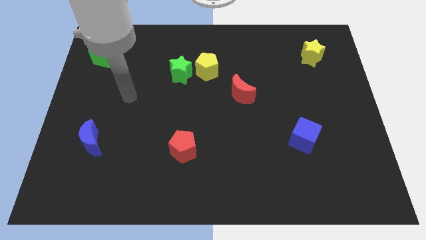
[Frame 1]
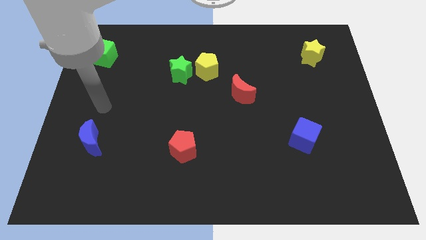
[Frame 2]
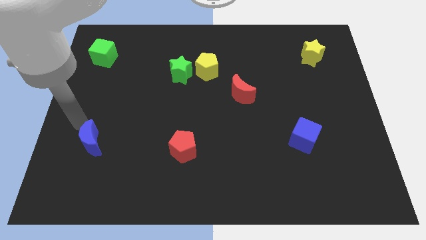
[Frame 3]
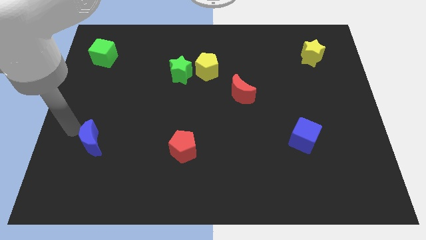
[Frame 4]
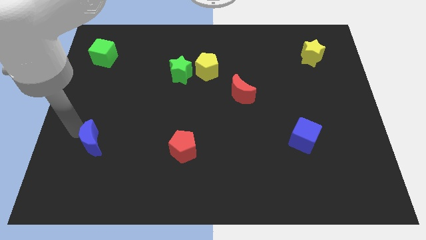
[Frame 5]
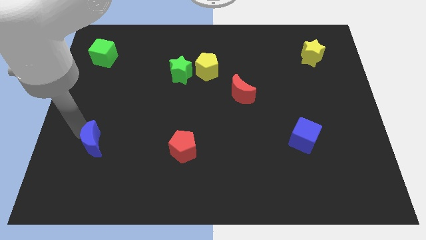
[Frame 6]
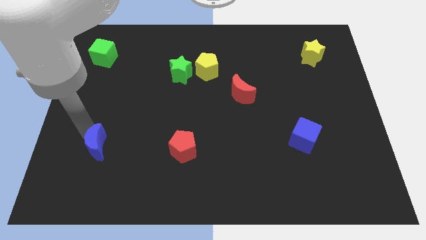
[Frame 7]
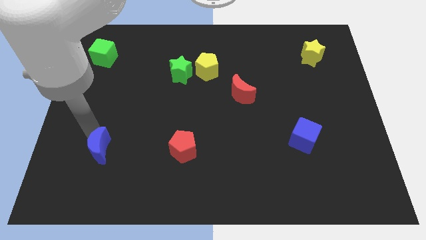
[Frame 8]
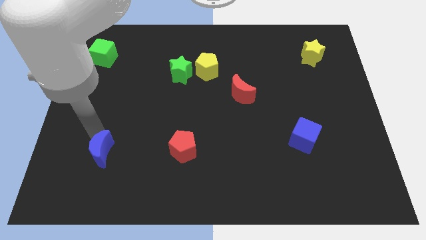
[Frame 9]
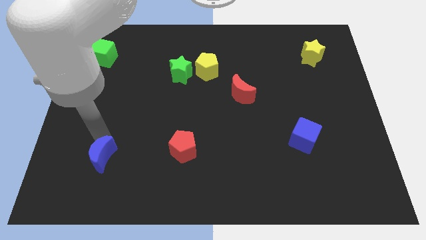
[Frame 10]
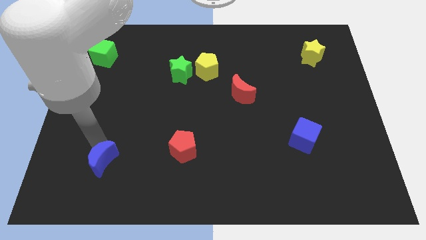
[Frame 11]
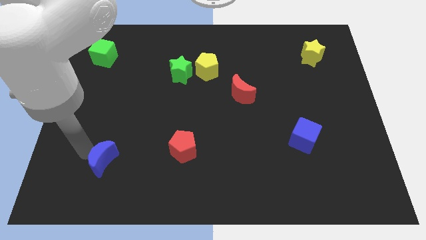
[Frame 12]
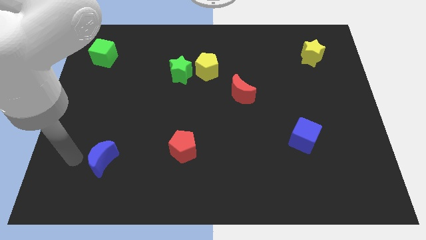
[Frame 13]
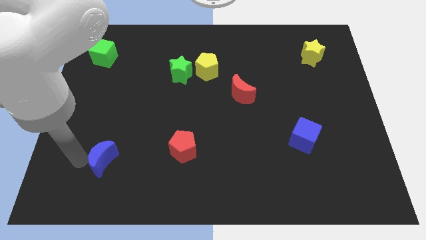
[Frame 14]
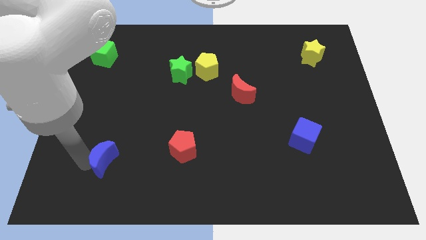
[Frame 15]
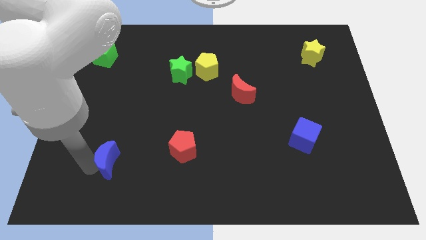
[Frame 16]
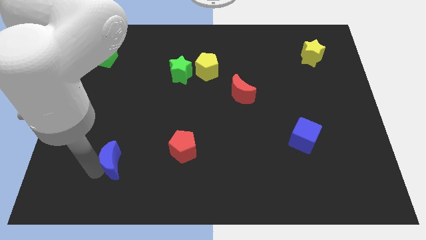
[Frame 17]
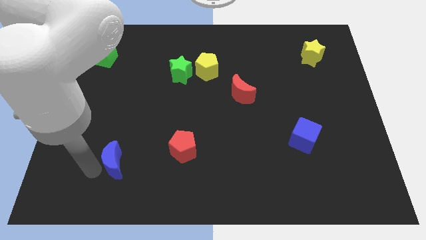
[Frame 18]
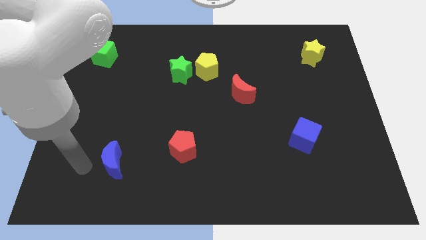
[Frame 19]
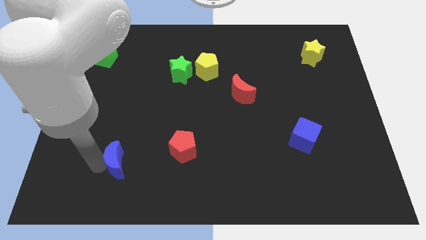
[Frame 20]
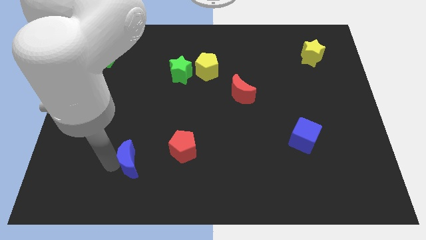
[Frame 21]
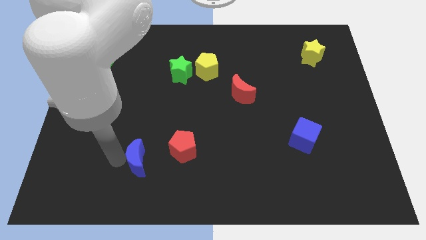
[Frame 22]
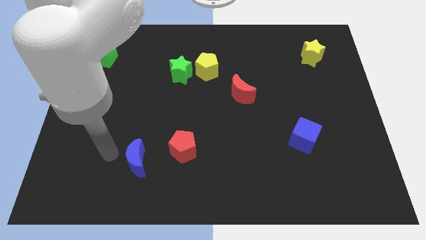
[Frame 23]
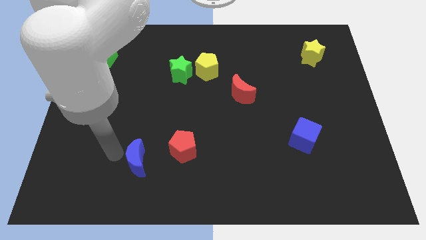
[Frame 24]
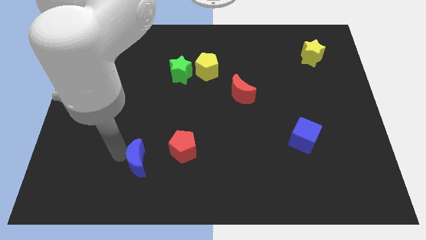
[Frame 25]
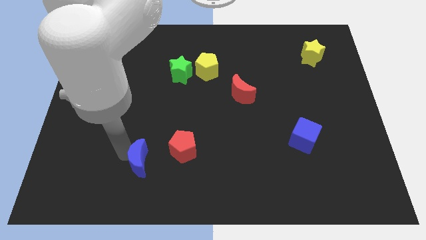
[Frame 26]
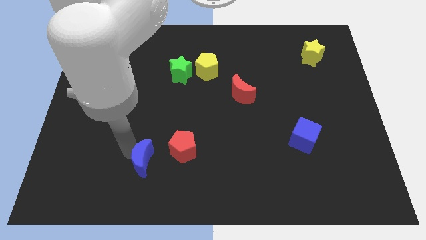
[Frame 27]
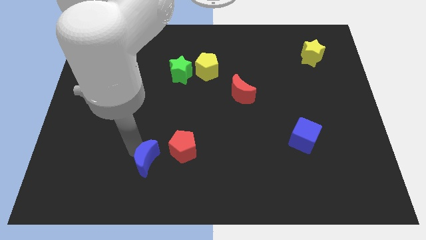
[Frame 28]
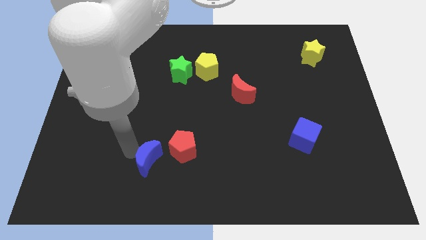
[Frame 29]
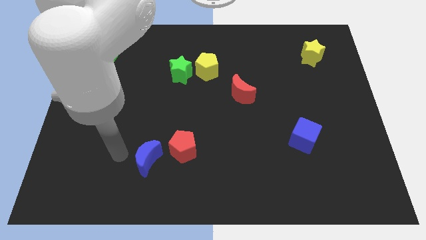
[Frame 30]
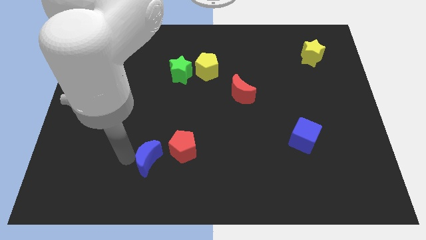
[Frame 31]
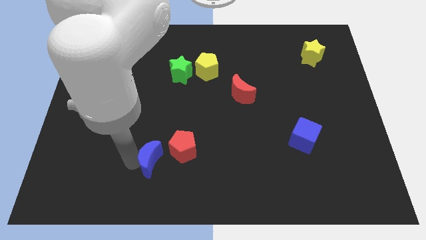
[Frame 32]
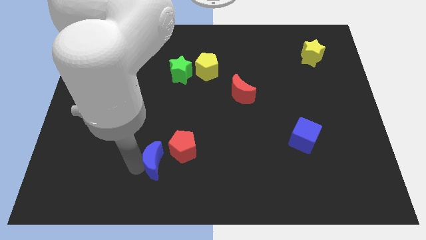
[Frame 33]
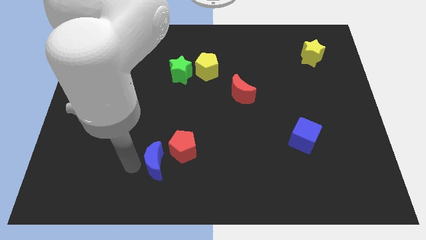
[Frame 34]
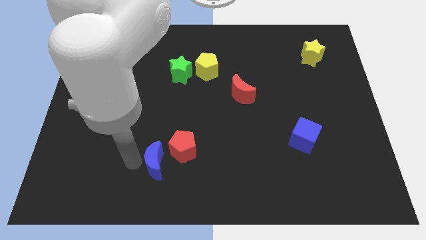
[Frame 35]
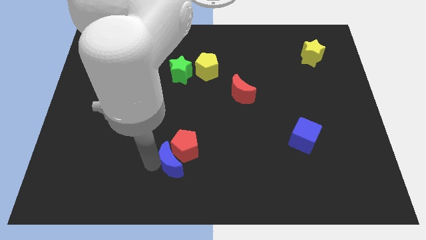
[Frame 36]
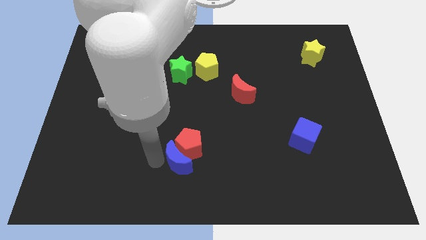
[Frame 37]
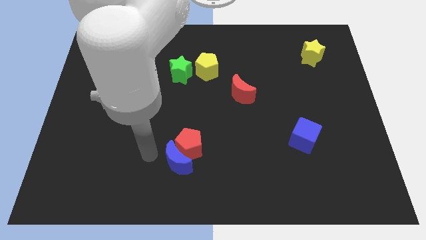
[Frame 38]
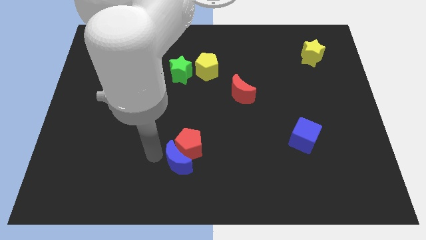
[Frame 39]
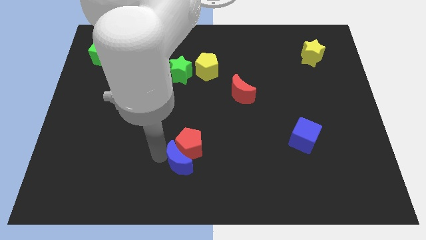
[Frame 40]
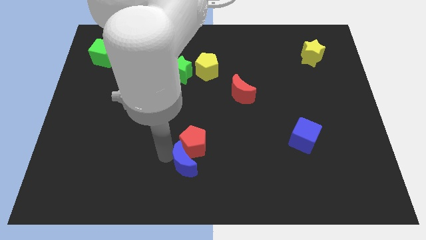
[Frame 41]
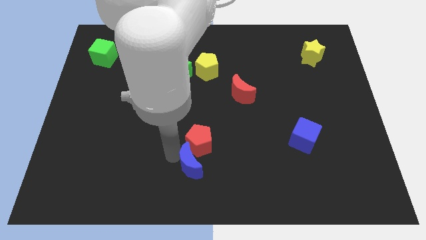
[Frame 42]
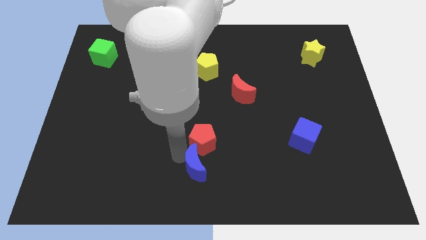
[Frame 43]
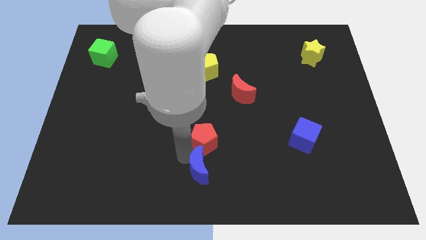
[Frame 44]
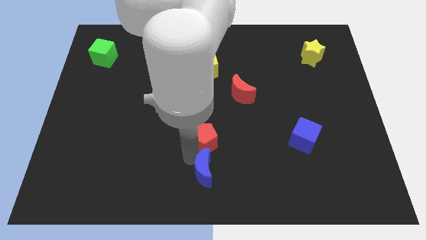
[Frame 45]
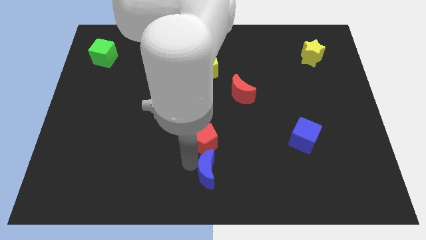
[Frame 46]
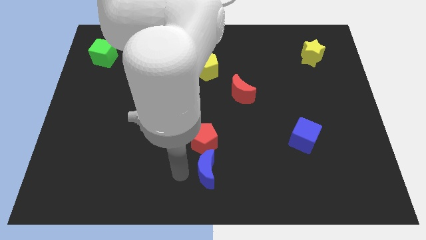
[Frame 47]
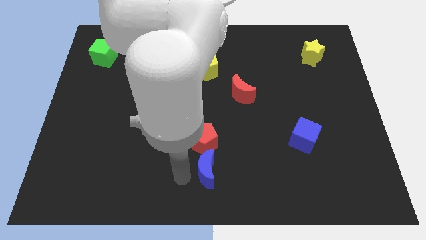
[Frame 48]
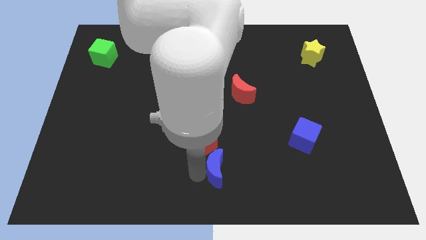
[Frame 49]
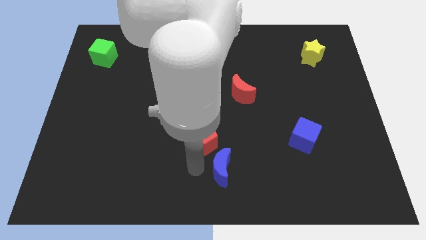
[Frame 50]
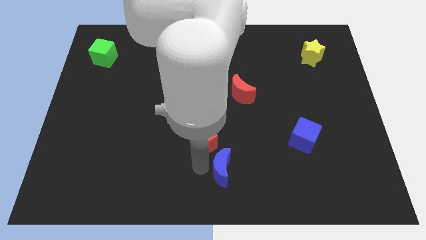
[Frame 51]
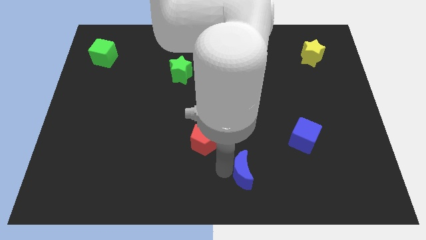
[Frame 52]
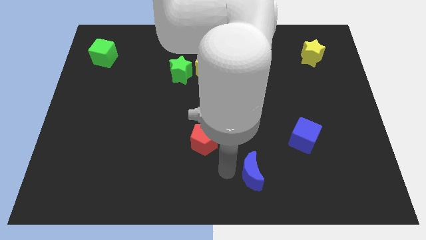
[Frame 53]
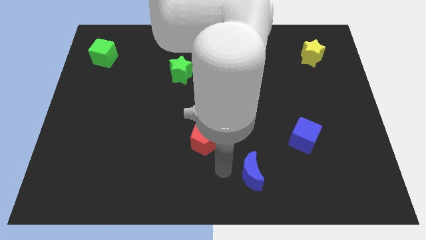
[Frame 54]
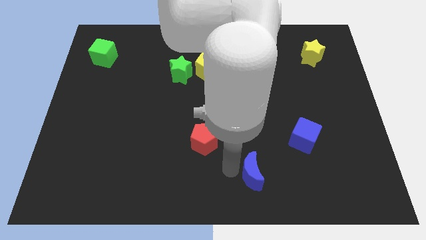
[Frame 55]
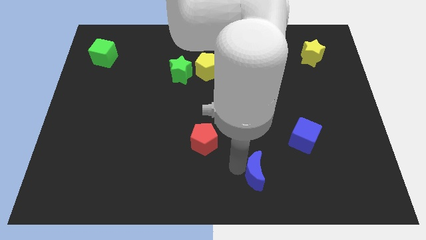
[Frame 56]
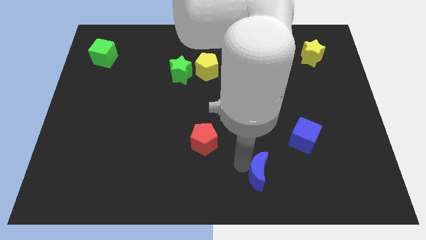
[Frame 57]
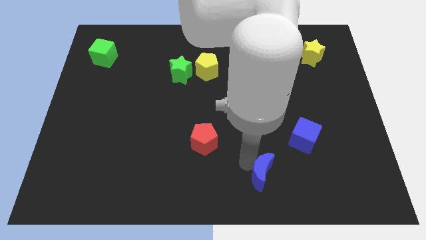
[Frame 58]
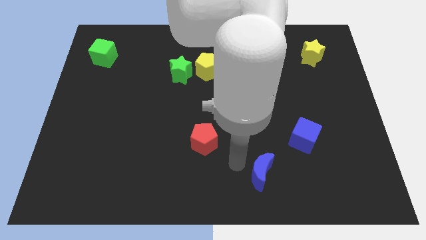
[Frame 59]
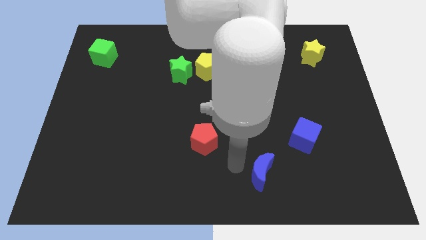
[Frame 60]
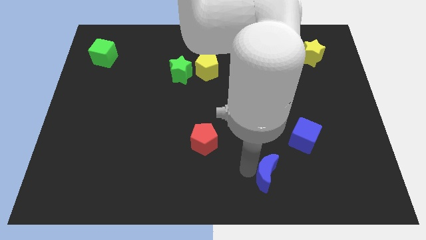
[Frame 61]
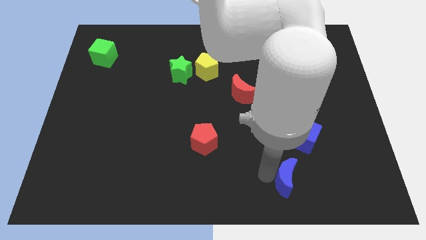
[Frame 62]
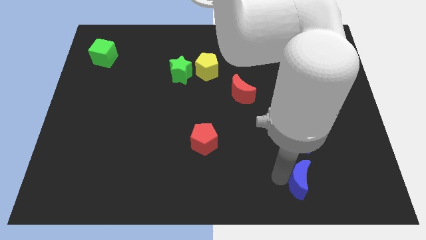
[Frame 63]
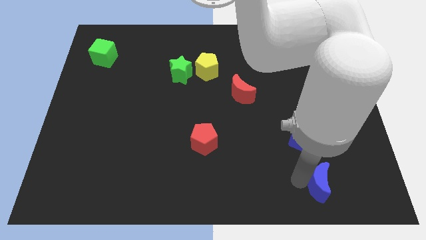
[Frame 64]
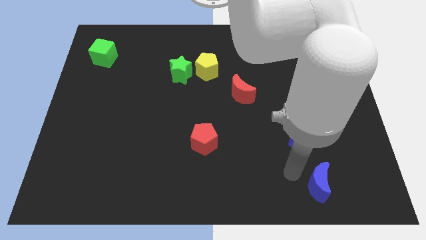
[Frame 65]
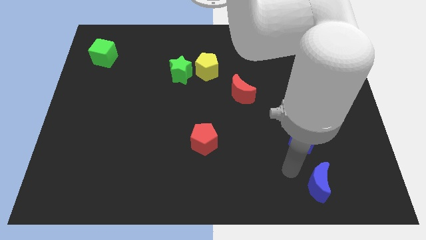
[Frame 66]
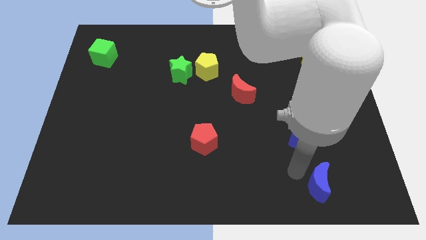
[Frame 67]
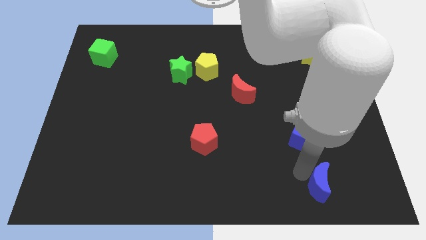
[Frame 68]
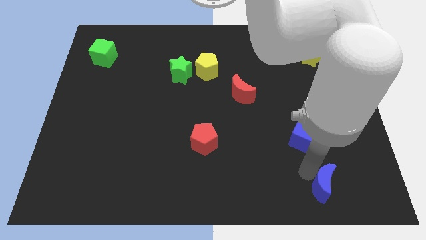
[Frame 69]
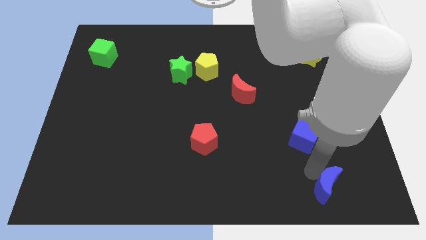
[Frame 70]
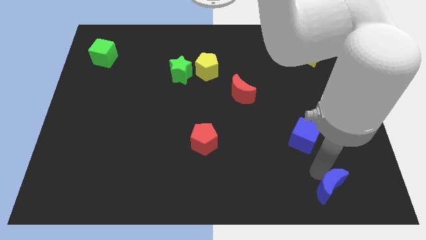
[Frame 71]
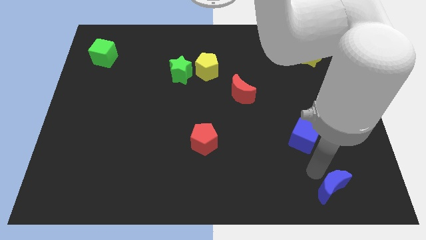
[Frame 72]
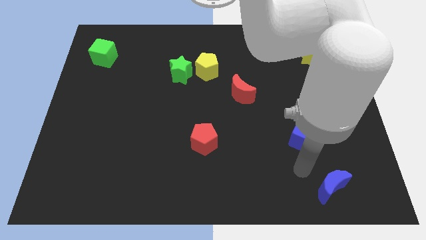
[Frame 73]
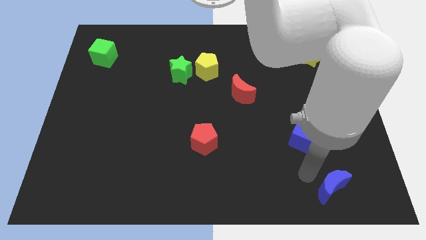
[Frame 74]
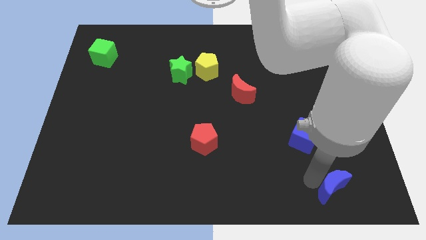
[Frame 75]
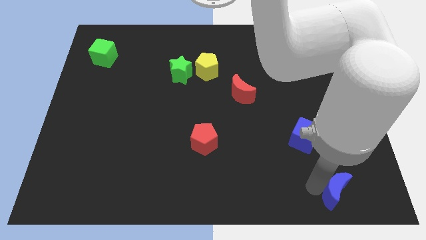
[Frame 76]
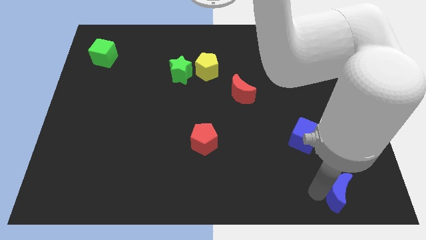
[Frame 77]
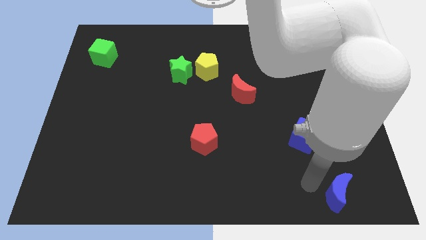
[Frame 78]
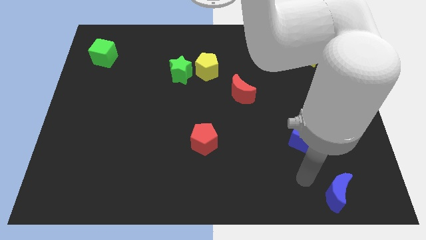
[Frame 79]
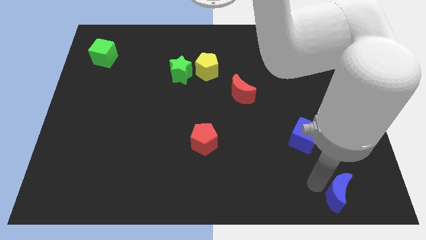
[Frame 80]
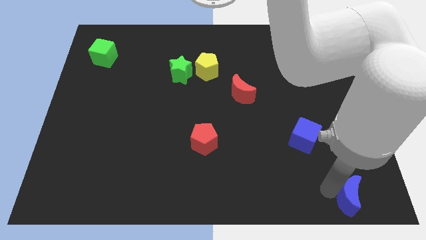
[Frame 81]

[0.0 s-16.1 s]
put the blue moon to the bottom right of the board
